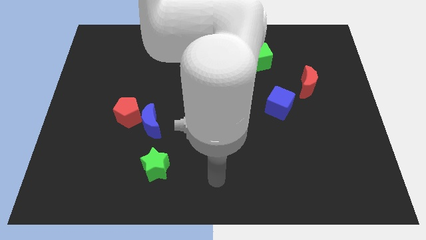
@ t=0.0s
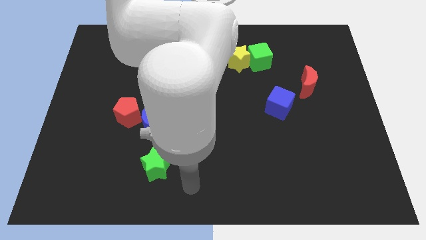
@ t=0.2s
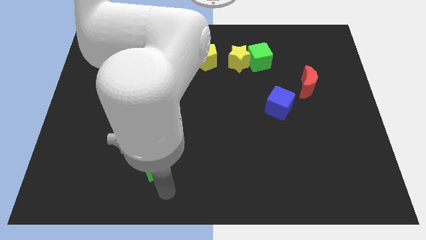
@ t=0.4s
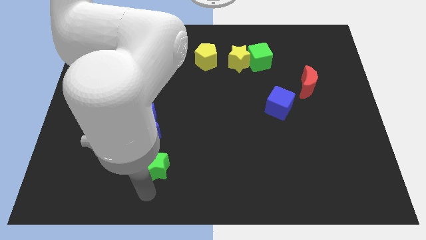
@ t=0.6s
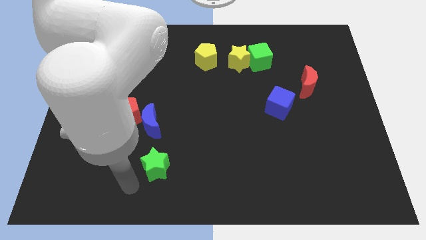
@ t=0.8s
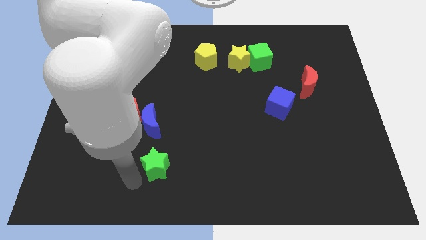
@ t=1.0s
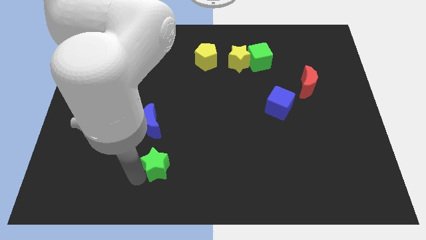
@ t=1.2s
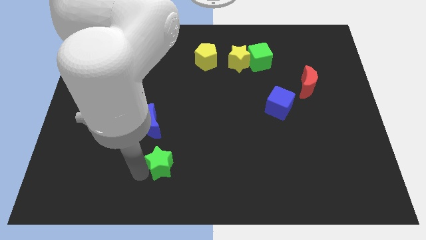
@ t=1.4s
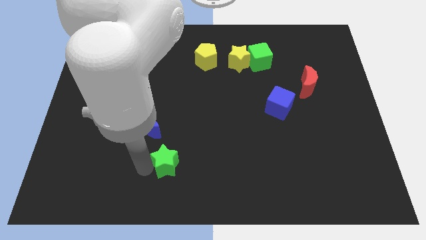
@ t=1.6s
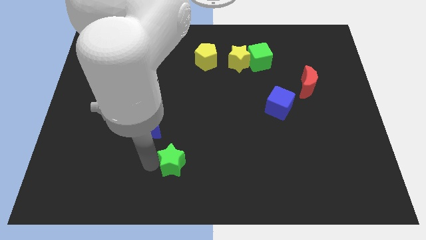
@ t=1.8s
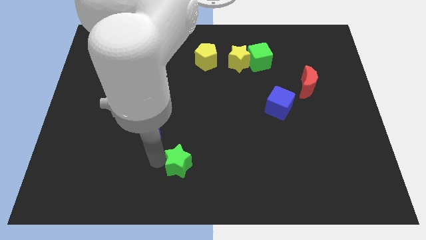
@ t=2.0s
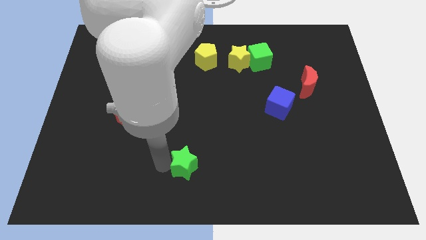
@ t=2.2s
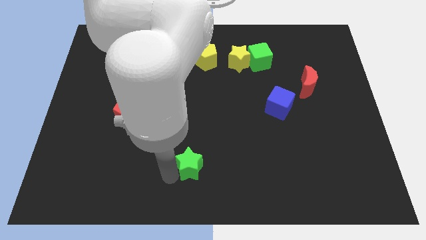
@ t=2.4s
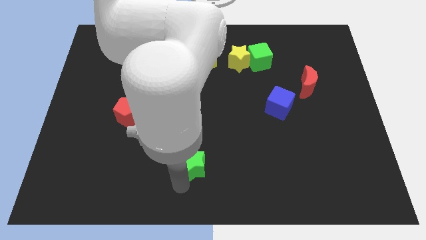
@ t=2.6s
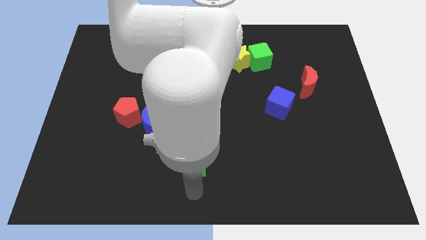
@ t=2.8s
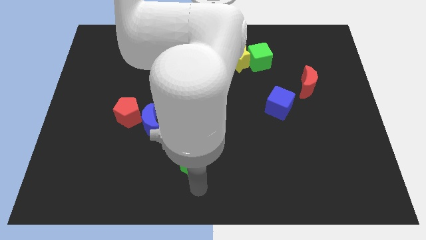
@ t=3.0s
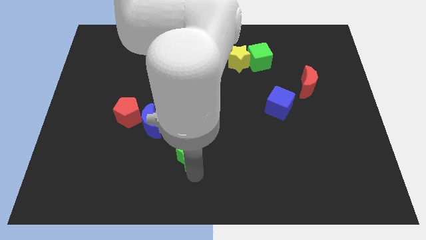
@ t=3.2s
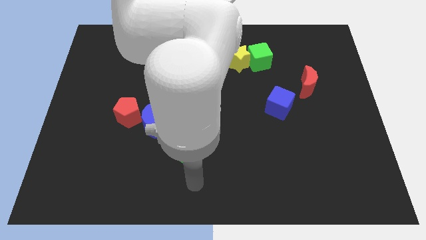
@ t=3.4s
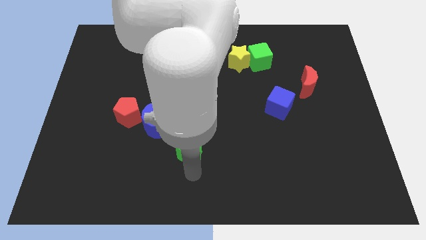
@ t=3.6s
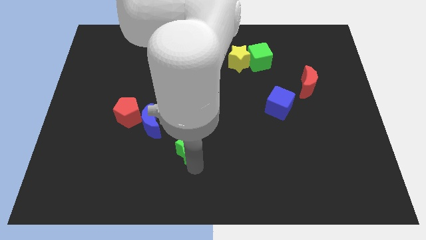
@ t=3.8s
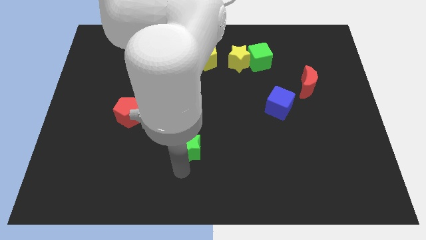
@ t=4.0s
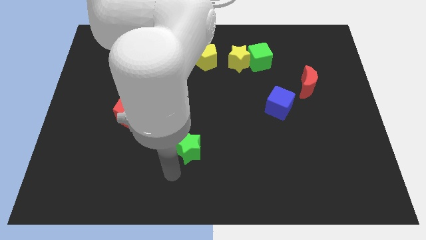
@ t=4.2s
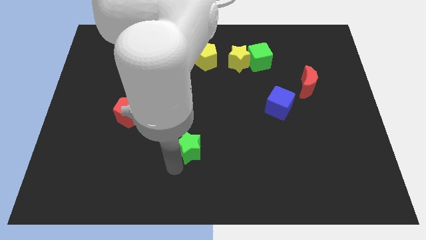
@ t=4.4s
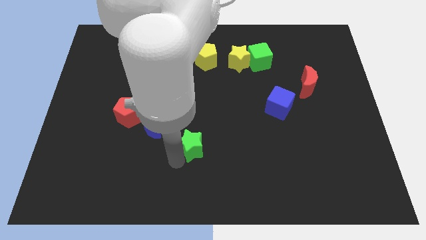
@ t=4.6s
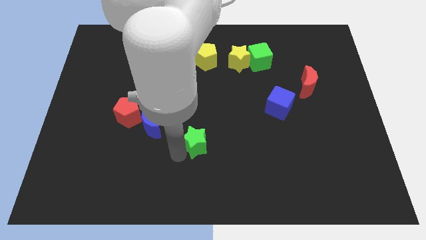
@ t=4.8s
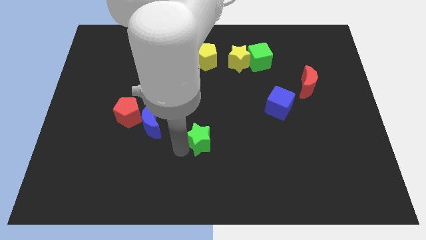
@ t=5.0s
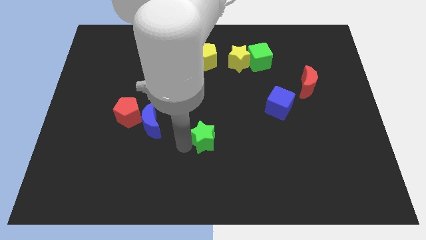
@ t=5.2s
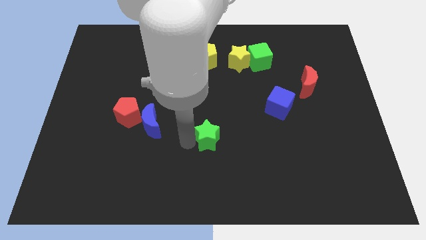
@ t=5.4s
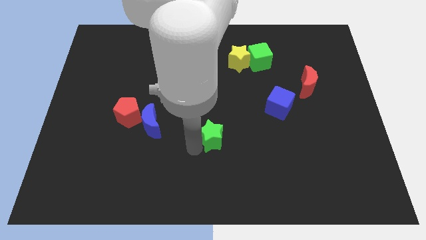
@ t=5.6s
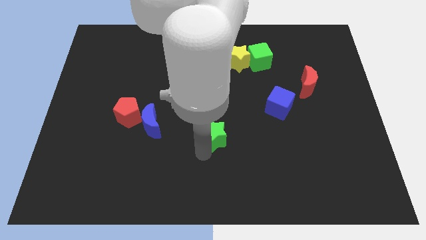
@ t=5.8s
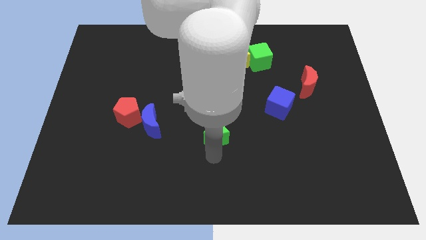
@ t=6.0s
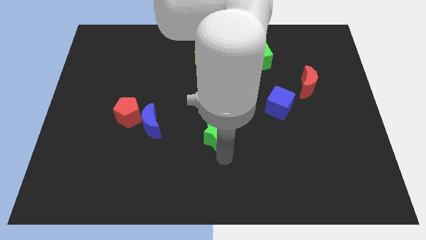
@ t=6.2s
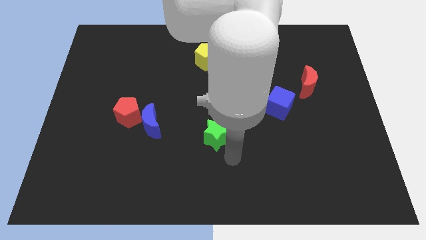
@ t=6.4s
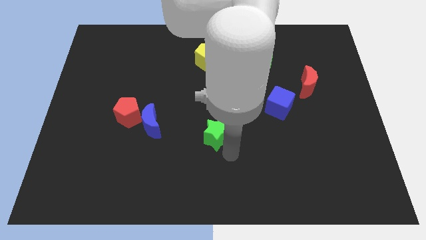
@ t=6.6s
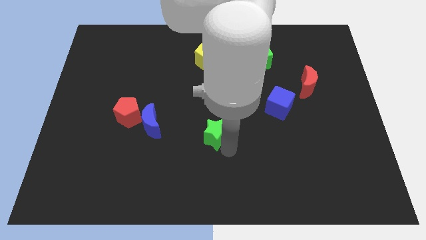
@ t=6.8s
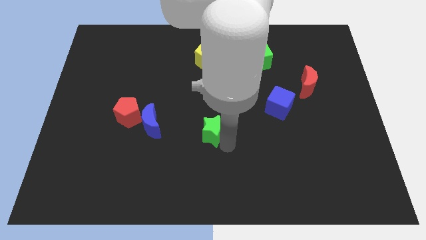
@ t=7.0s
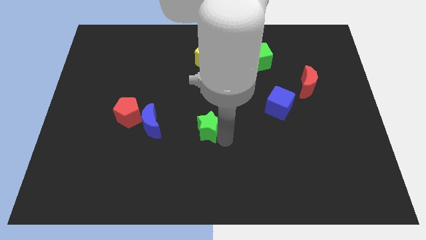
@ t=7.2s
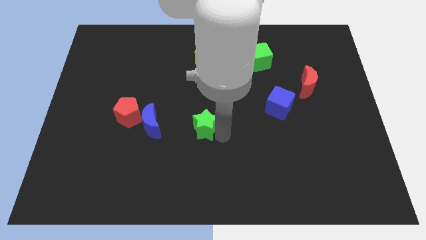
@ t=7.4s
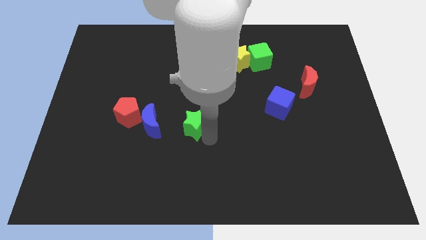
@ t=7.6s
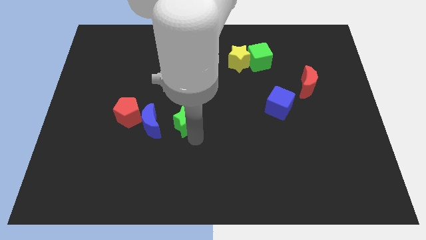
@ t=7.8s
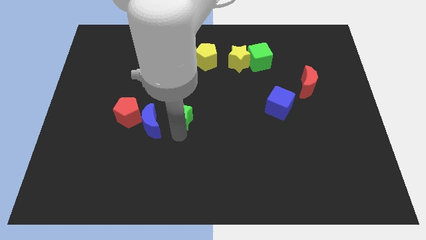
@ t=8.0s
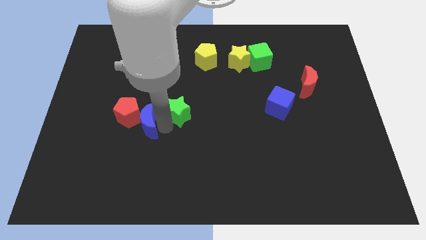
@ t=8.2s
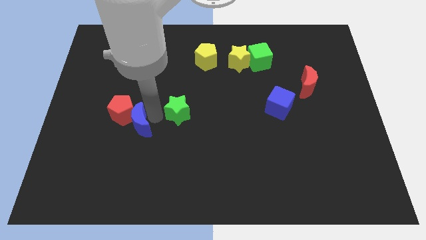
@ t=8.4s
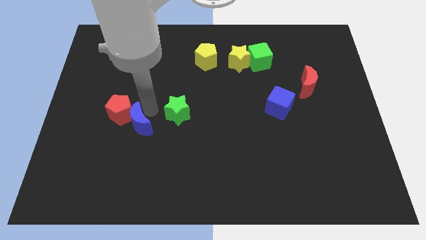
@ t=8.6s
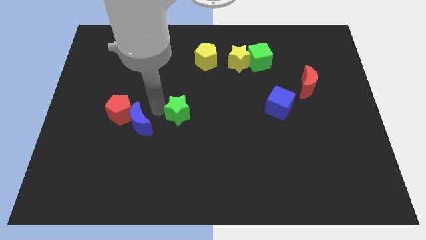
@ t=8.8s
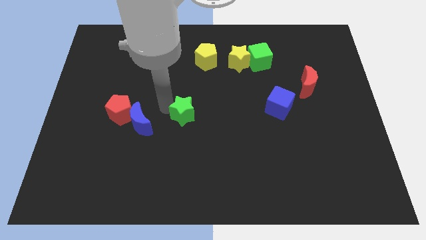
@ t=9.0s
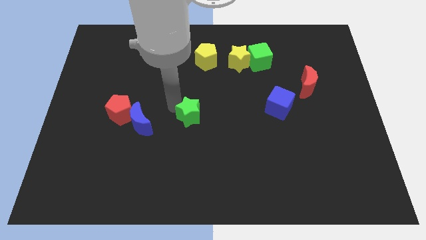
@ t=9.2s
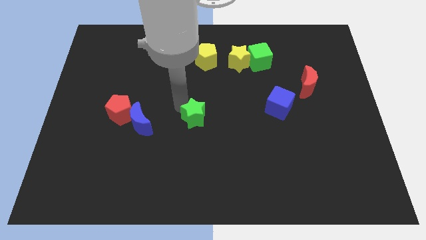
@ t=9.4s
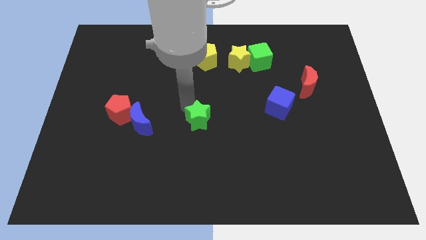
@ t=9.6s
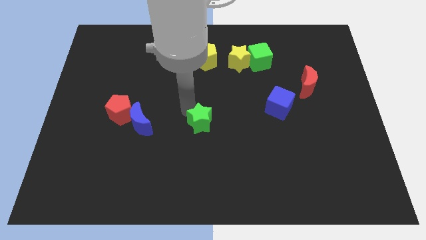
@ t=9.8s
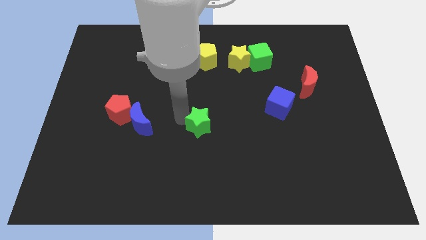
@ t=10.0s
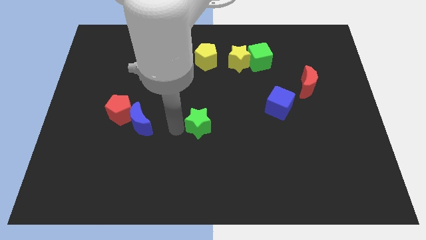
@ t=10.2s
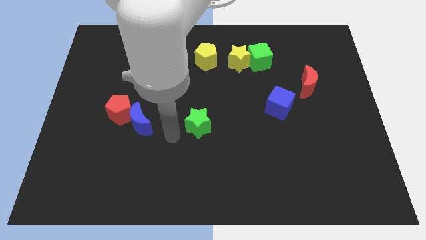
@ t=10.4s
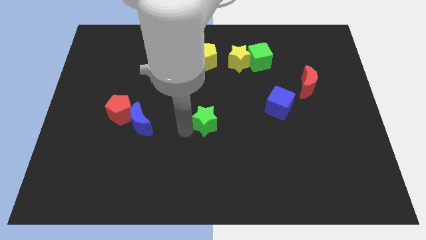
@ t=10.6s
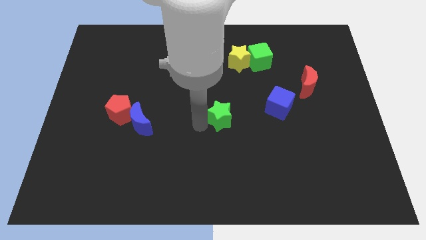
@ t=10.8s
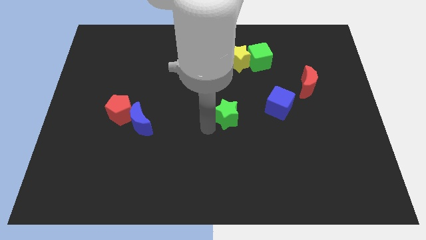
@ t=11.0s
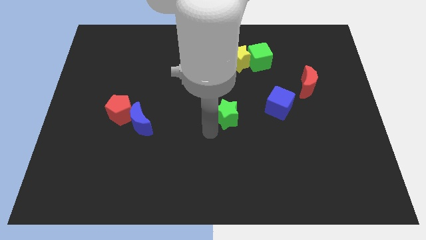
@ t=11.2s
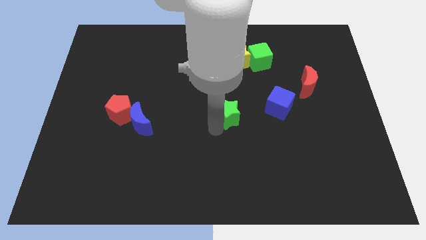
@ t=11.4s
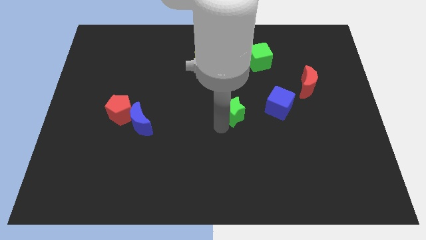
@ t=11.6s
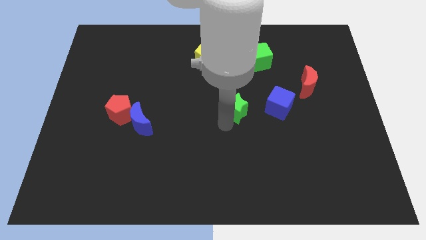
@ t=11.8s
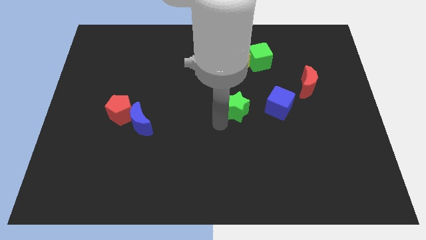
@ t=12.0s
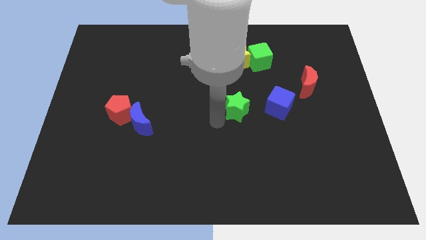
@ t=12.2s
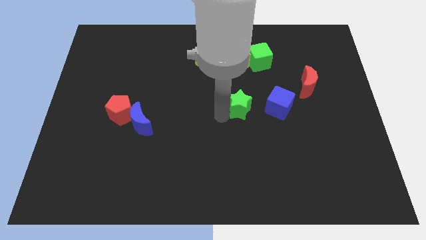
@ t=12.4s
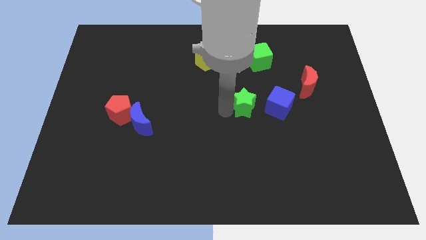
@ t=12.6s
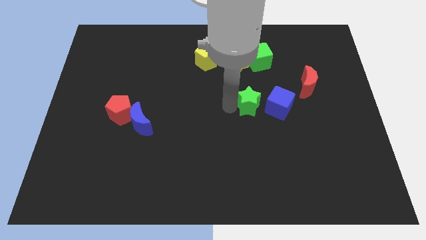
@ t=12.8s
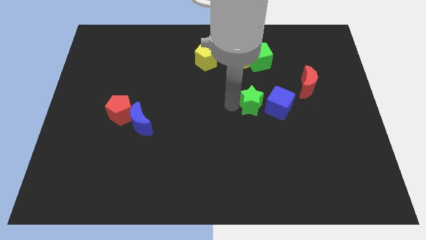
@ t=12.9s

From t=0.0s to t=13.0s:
push the green star below the green cube

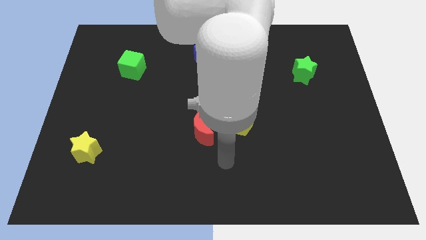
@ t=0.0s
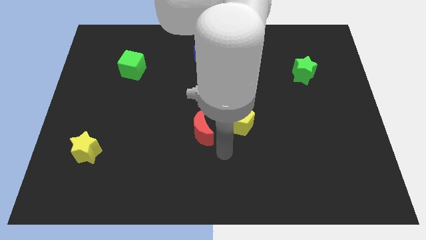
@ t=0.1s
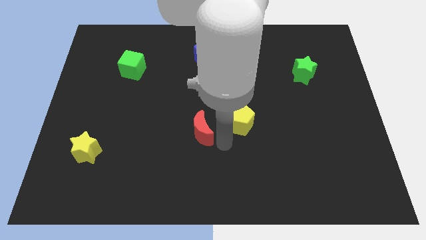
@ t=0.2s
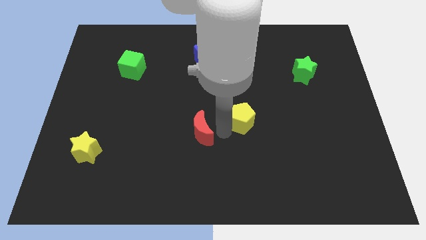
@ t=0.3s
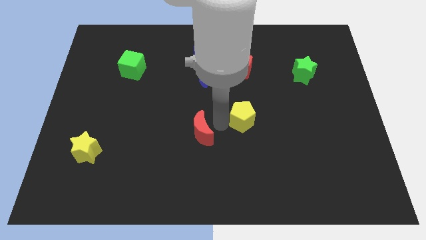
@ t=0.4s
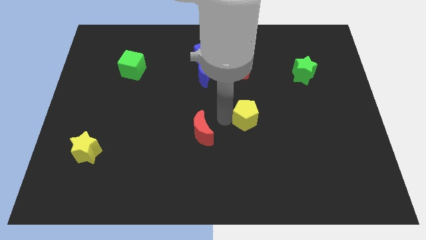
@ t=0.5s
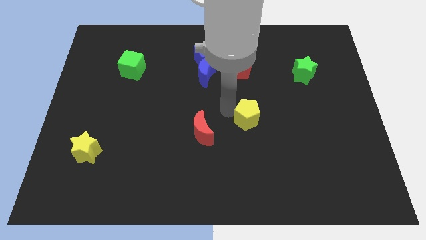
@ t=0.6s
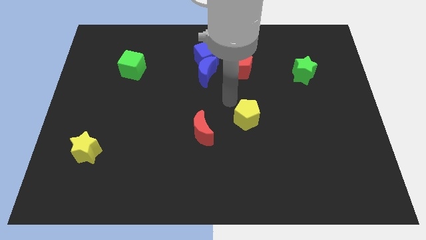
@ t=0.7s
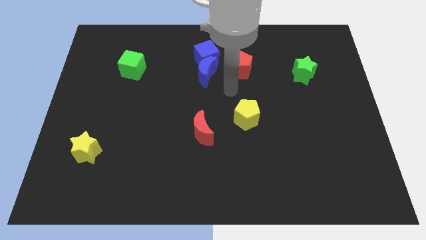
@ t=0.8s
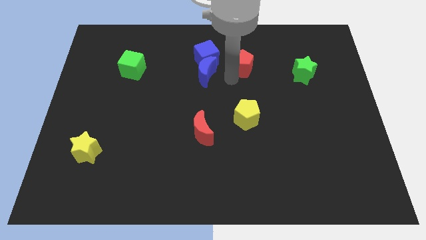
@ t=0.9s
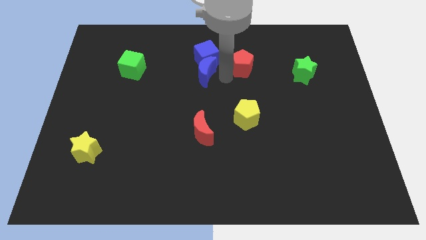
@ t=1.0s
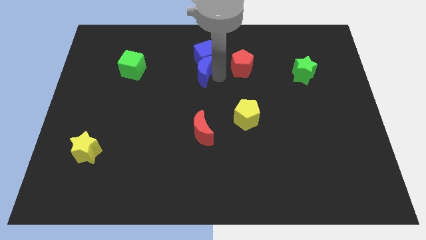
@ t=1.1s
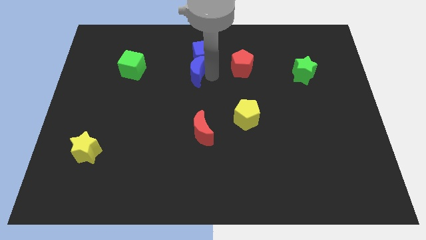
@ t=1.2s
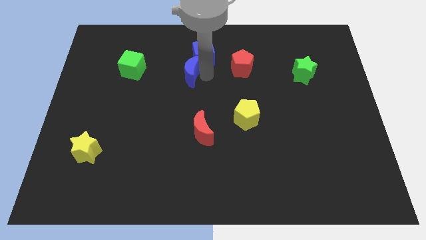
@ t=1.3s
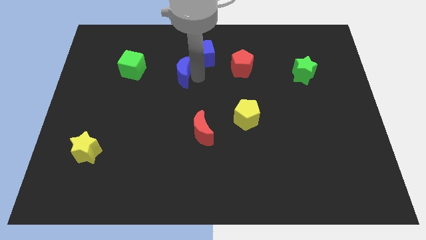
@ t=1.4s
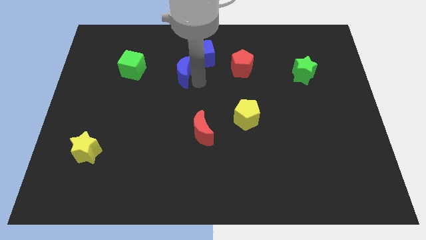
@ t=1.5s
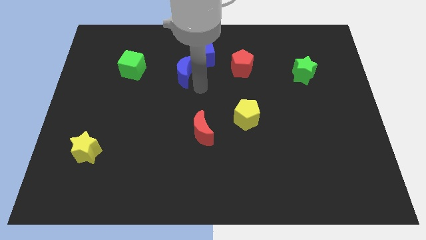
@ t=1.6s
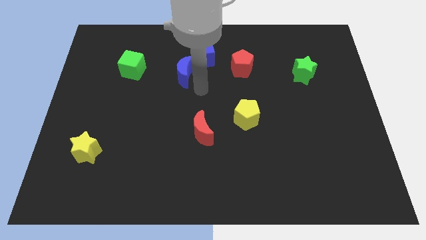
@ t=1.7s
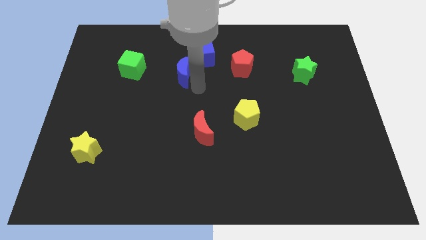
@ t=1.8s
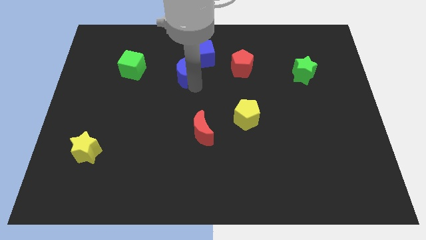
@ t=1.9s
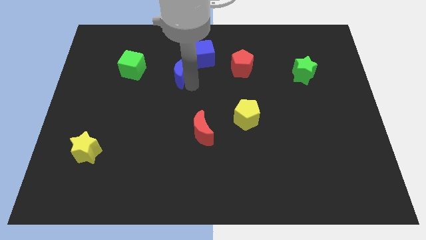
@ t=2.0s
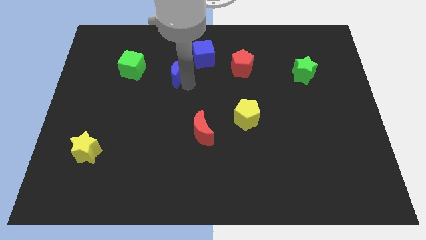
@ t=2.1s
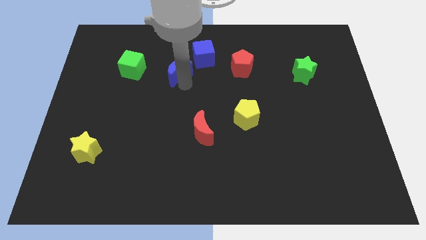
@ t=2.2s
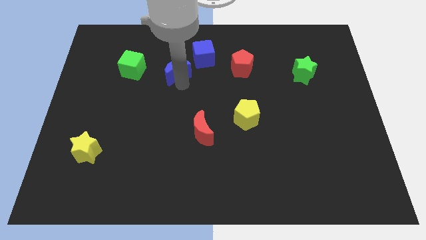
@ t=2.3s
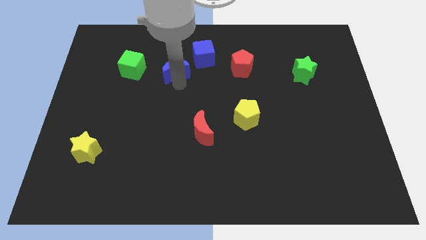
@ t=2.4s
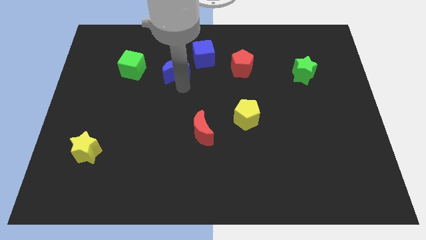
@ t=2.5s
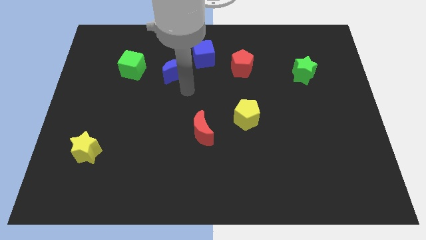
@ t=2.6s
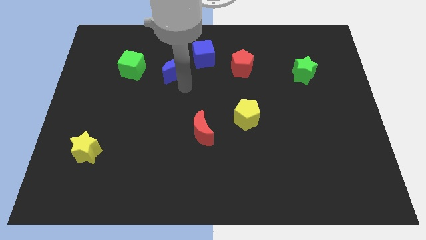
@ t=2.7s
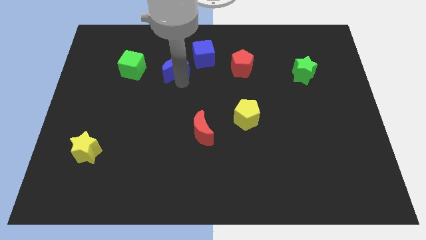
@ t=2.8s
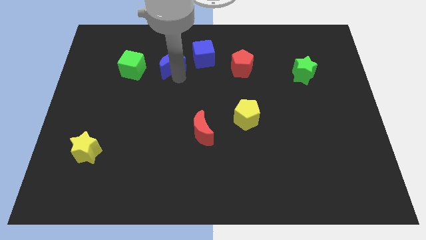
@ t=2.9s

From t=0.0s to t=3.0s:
move the blue moon just left of the blue cube
